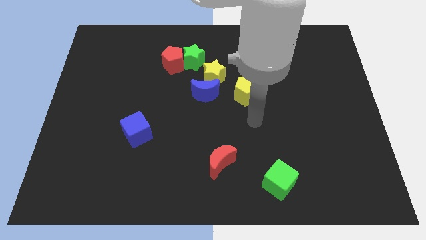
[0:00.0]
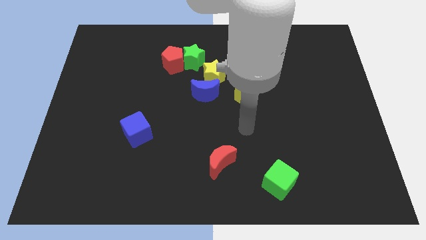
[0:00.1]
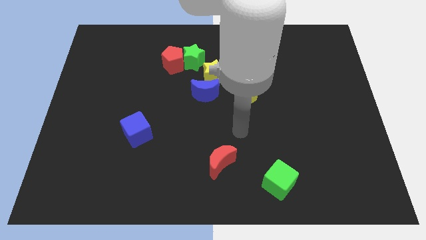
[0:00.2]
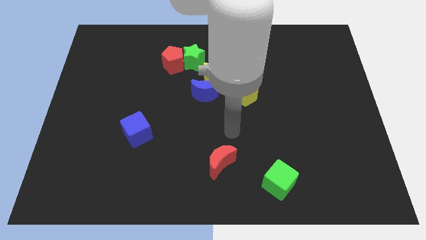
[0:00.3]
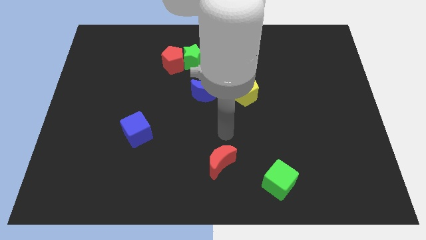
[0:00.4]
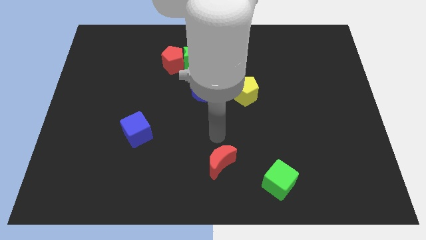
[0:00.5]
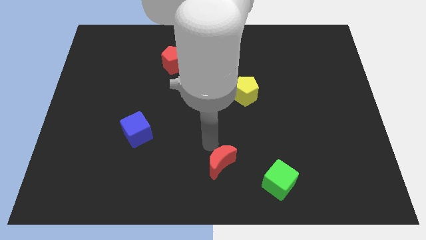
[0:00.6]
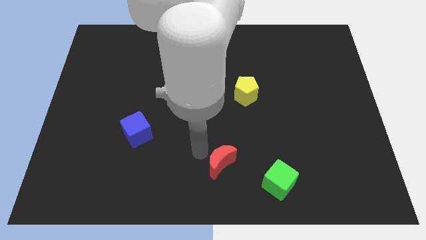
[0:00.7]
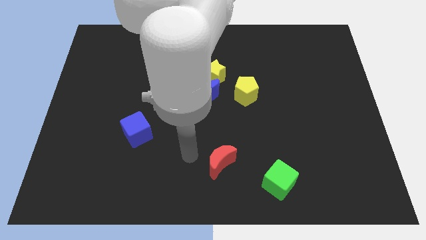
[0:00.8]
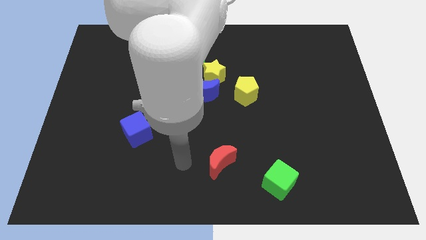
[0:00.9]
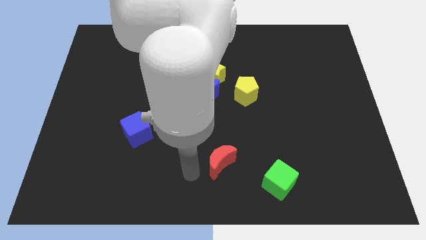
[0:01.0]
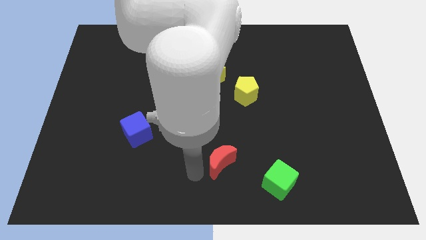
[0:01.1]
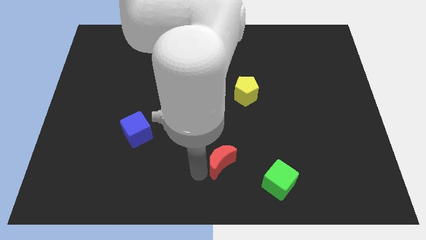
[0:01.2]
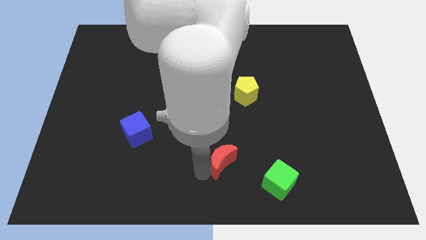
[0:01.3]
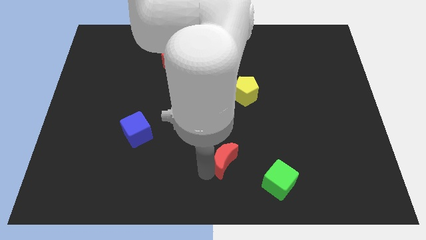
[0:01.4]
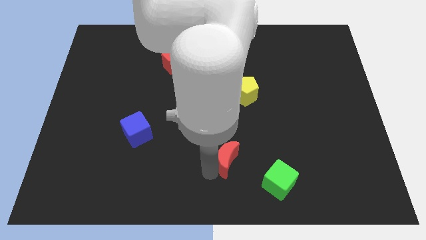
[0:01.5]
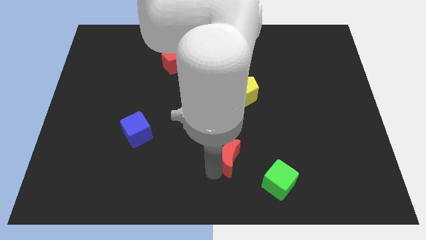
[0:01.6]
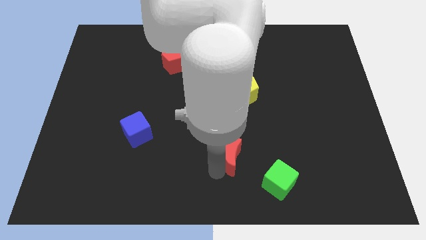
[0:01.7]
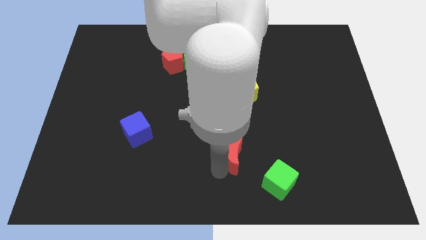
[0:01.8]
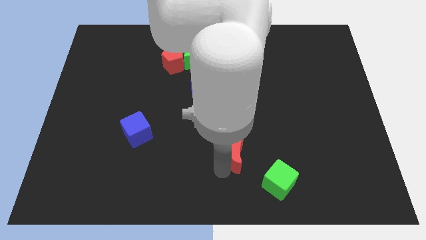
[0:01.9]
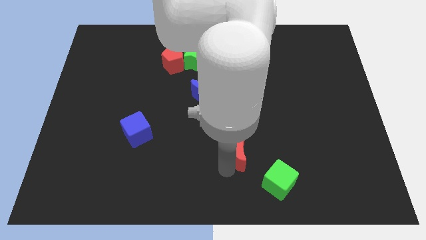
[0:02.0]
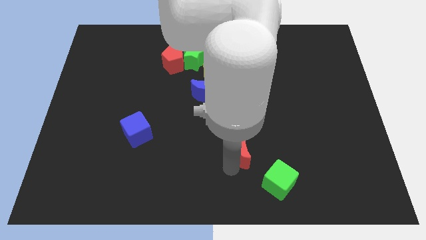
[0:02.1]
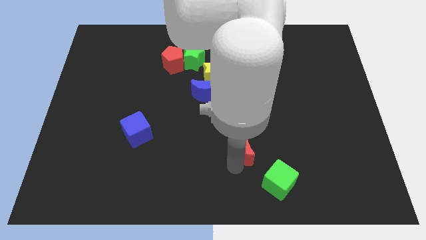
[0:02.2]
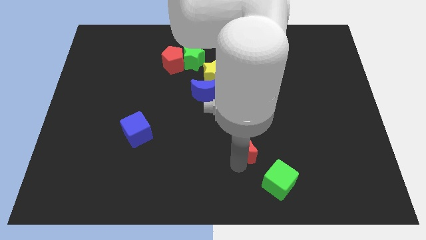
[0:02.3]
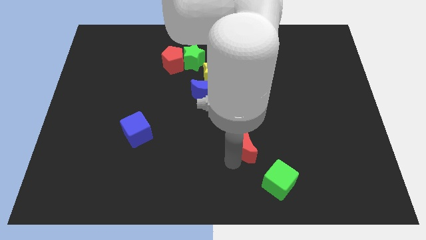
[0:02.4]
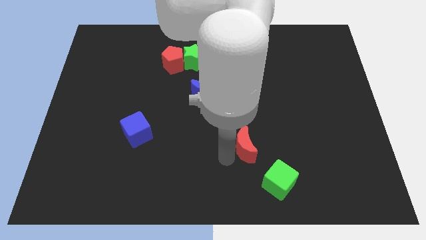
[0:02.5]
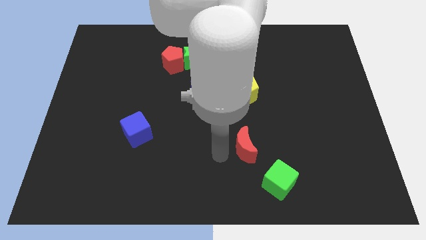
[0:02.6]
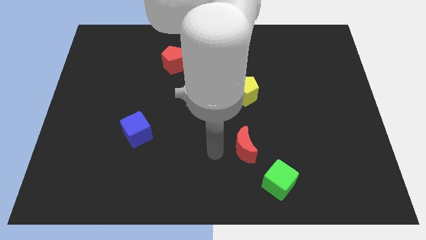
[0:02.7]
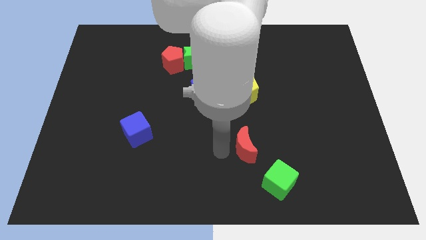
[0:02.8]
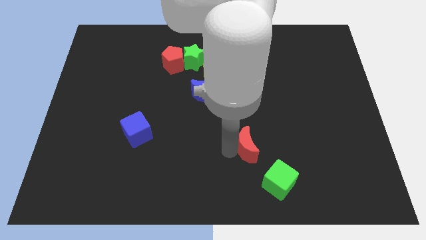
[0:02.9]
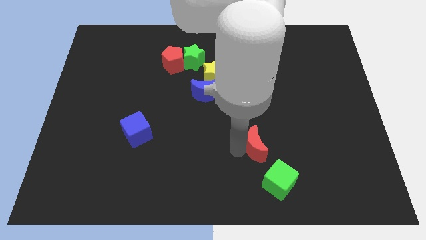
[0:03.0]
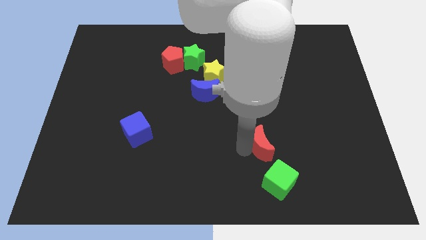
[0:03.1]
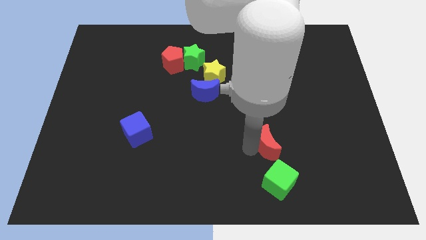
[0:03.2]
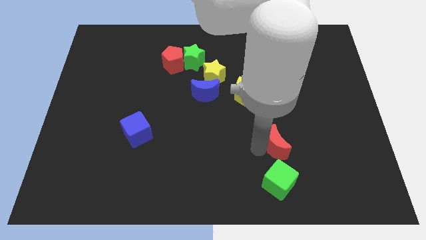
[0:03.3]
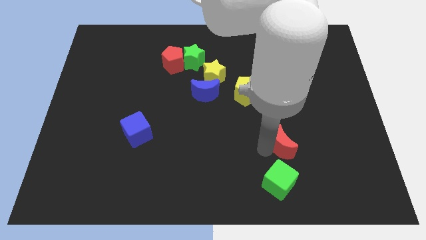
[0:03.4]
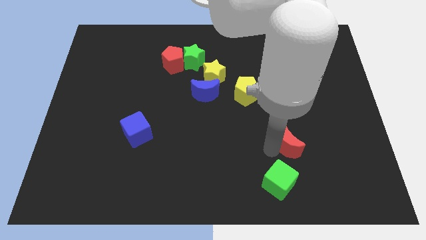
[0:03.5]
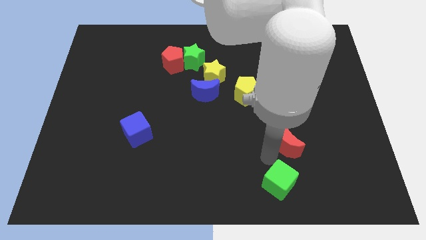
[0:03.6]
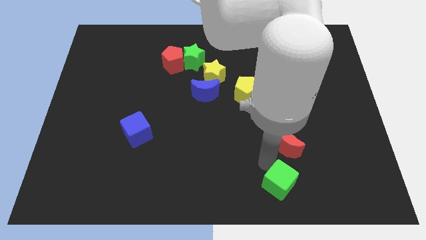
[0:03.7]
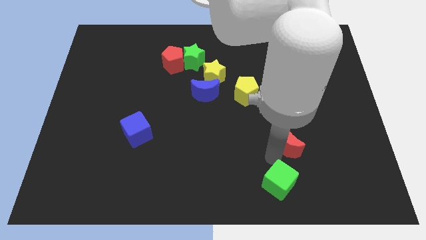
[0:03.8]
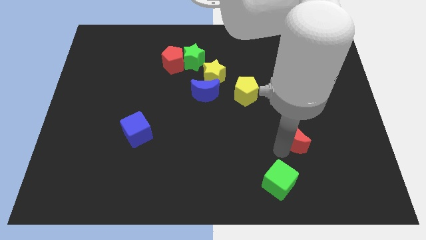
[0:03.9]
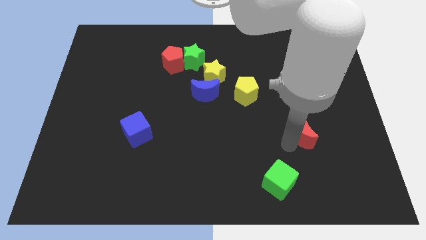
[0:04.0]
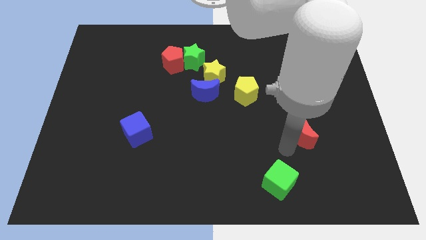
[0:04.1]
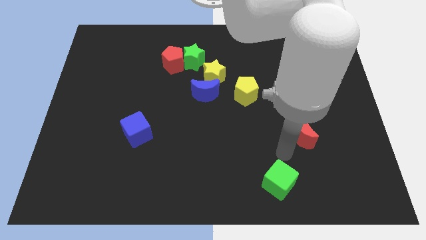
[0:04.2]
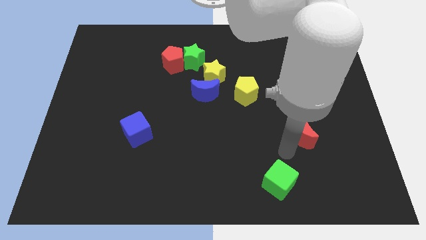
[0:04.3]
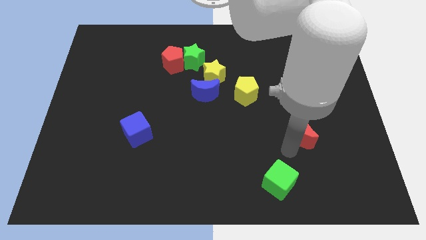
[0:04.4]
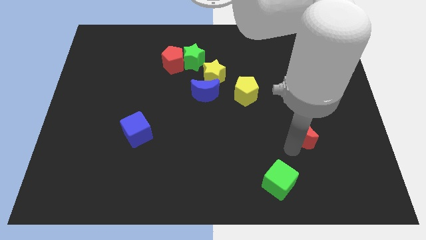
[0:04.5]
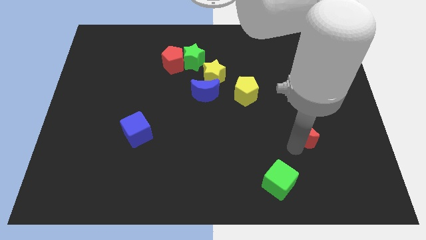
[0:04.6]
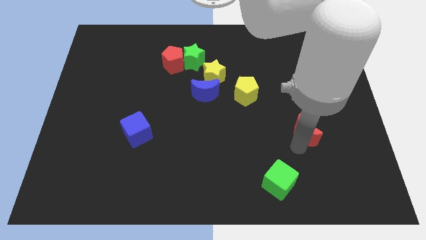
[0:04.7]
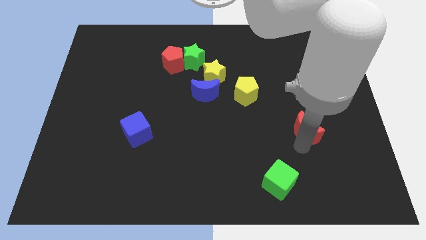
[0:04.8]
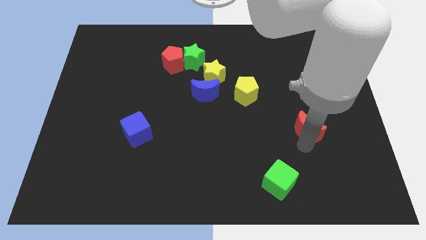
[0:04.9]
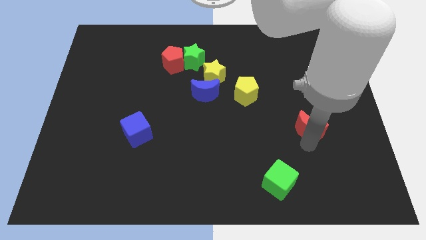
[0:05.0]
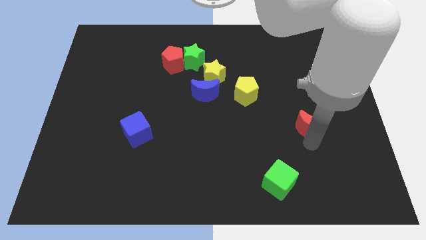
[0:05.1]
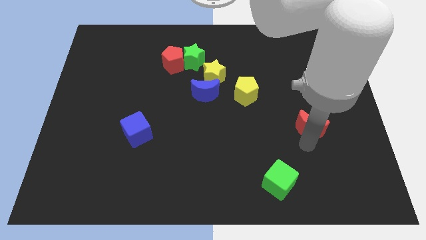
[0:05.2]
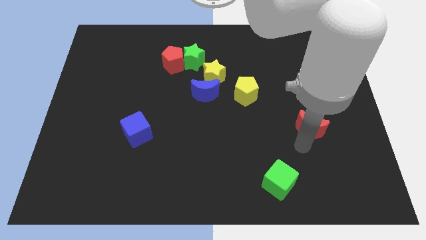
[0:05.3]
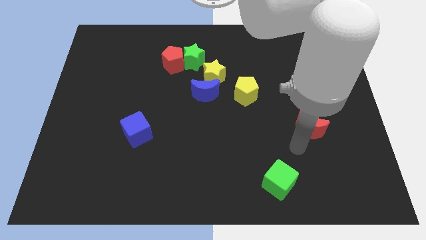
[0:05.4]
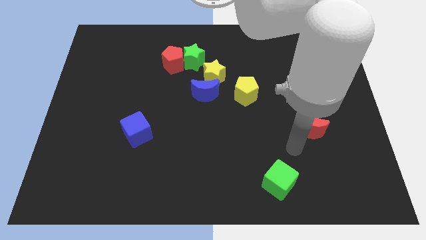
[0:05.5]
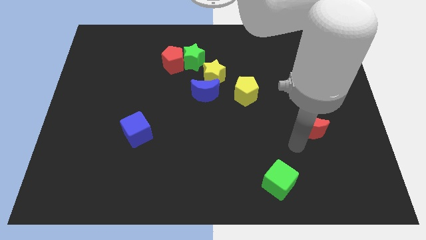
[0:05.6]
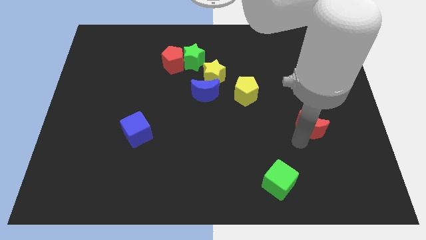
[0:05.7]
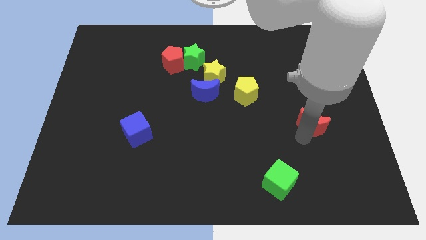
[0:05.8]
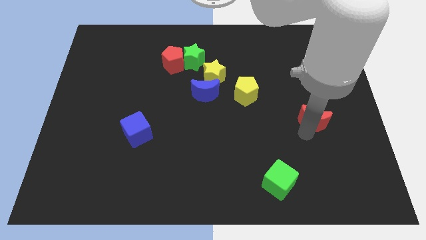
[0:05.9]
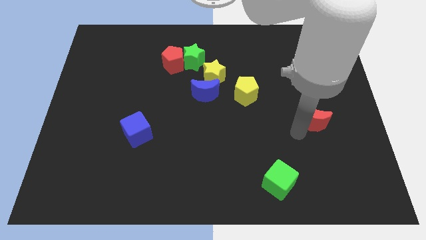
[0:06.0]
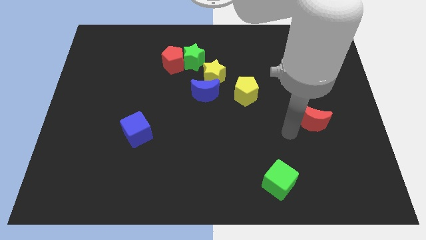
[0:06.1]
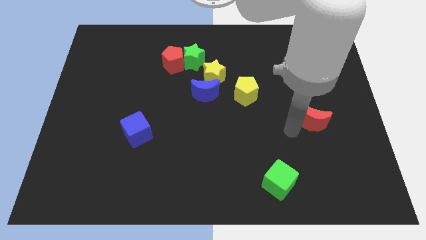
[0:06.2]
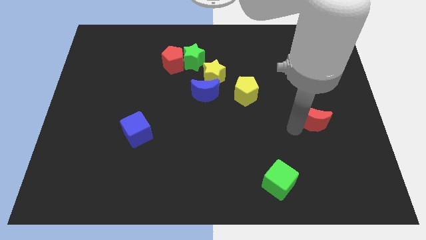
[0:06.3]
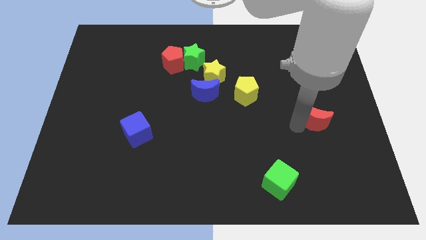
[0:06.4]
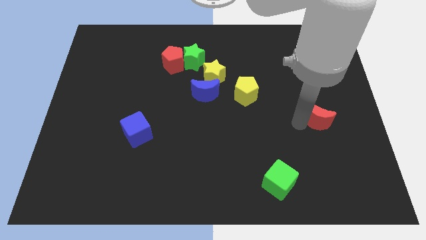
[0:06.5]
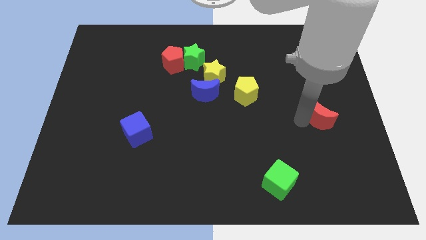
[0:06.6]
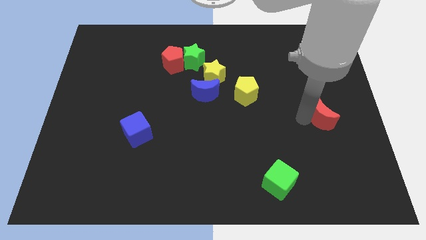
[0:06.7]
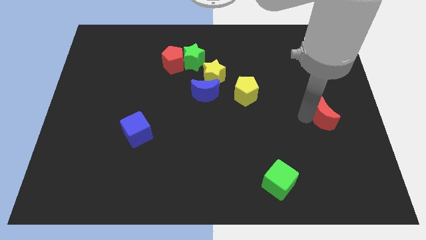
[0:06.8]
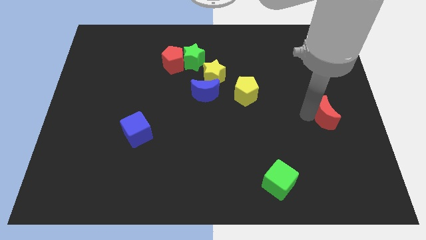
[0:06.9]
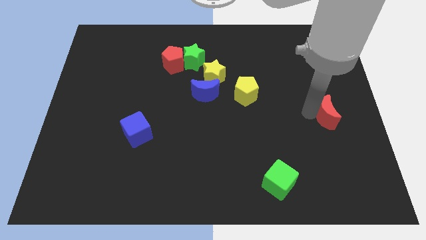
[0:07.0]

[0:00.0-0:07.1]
slide the red moon to the right side of the board

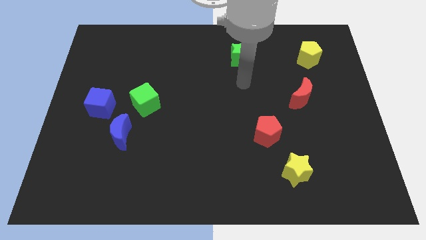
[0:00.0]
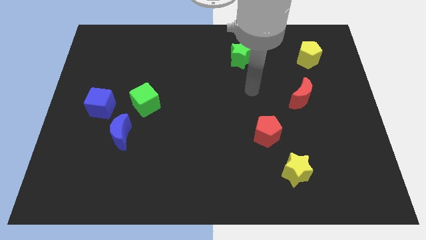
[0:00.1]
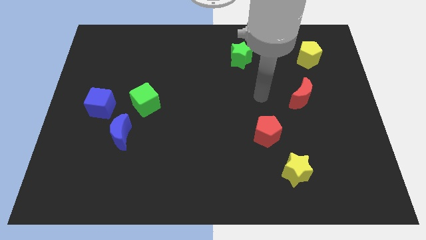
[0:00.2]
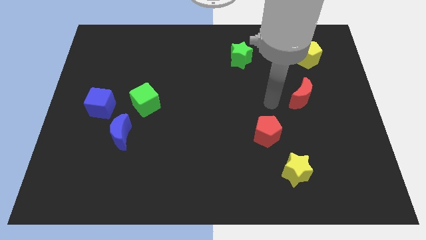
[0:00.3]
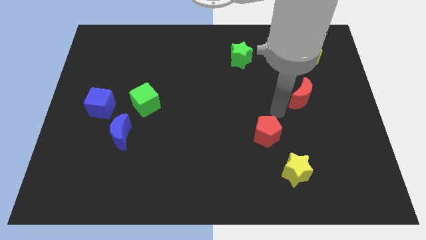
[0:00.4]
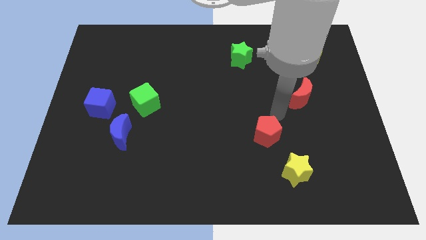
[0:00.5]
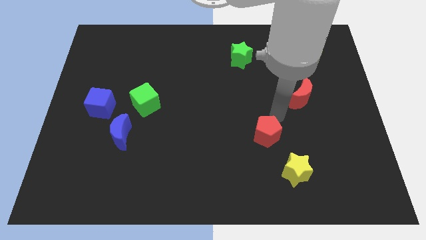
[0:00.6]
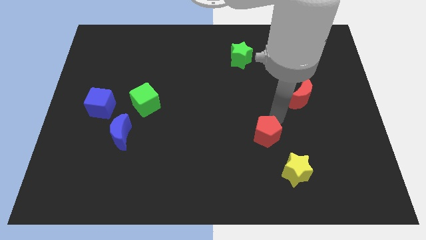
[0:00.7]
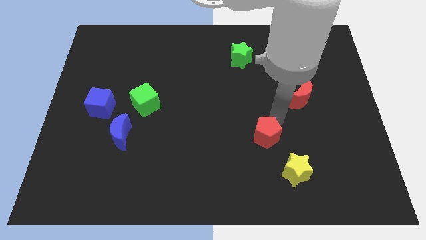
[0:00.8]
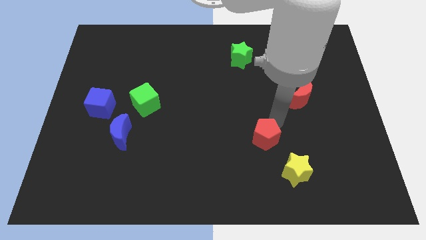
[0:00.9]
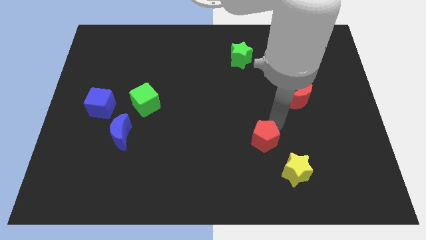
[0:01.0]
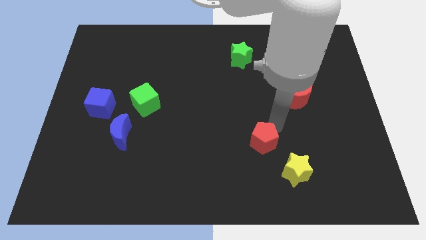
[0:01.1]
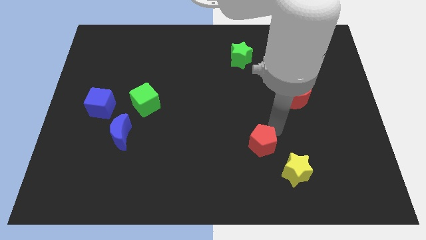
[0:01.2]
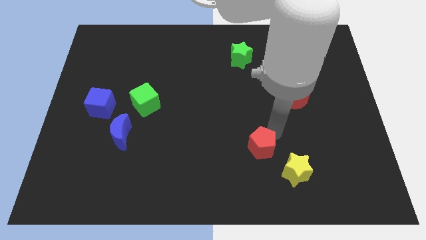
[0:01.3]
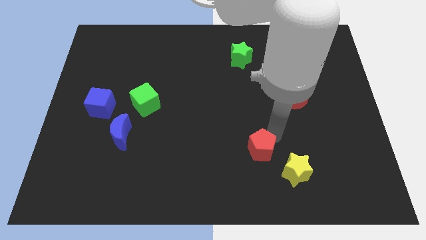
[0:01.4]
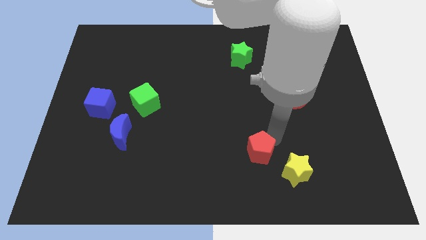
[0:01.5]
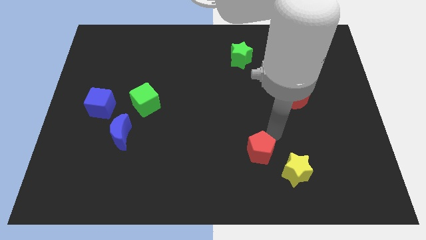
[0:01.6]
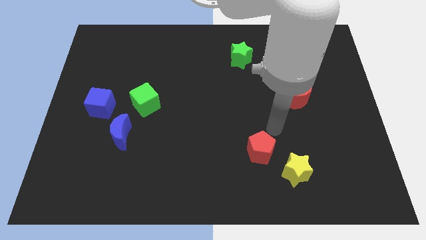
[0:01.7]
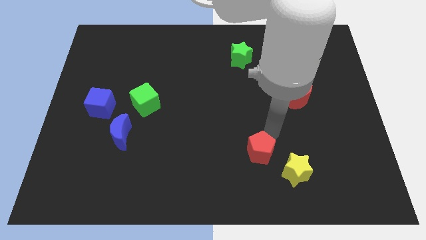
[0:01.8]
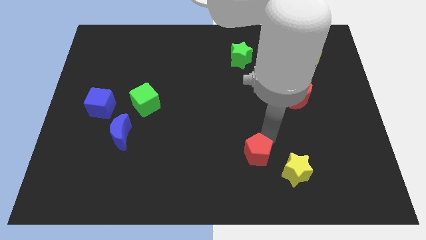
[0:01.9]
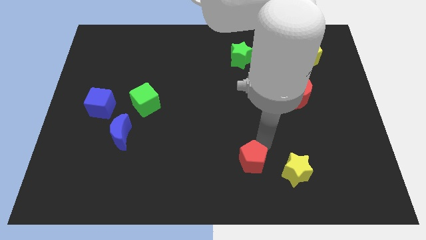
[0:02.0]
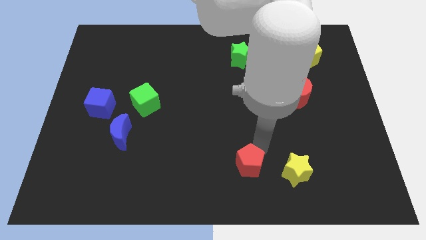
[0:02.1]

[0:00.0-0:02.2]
move the red pentagon to the bottom
